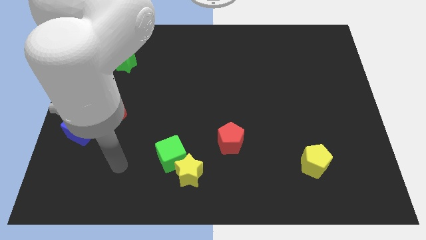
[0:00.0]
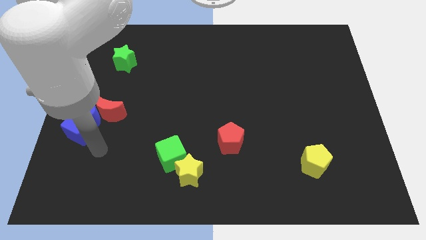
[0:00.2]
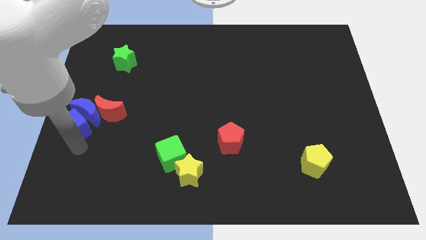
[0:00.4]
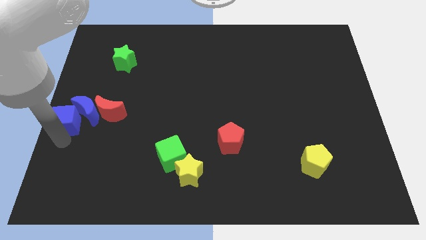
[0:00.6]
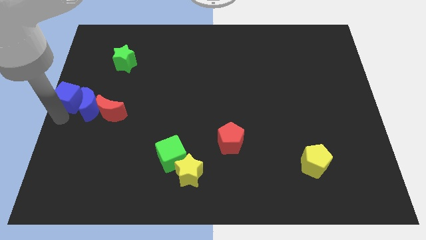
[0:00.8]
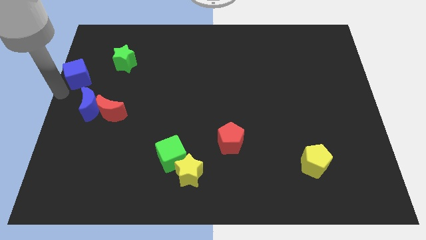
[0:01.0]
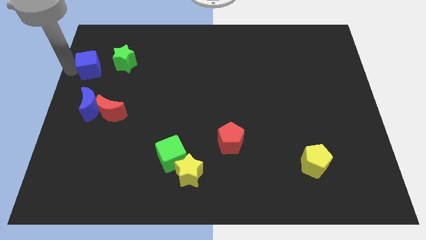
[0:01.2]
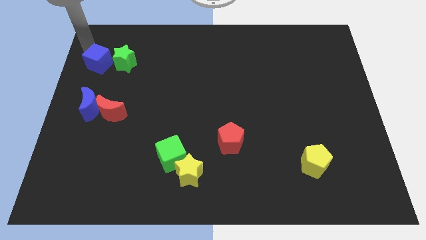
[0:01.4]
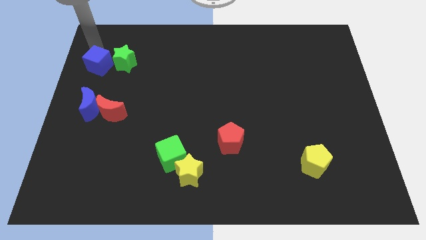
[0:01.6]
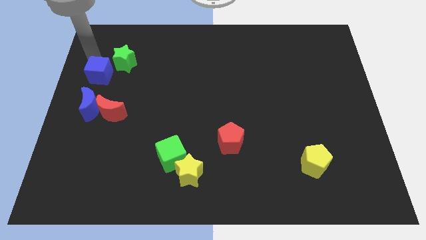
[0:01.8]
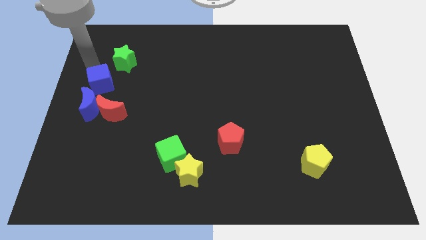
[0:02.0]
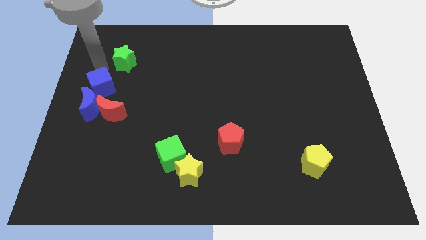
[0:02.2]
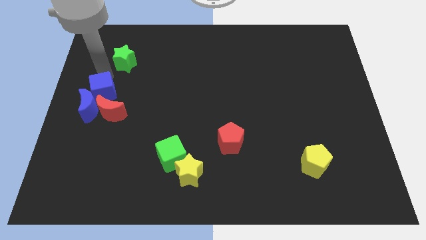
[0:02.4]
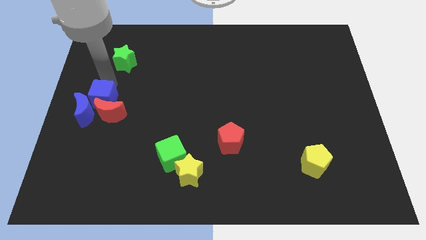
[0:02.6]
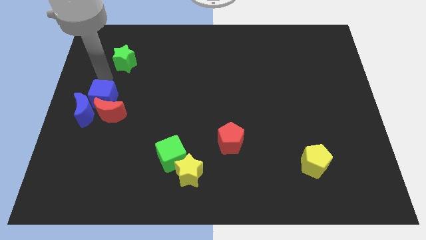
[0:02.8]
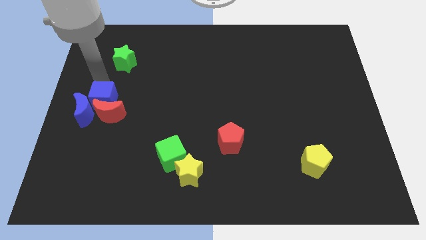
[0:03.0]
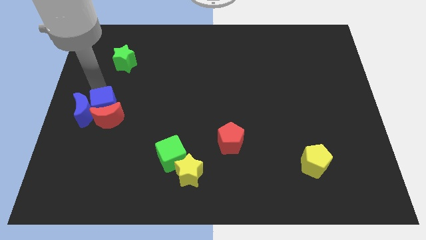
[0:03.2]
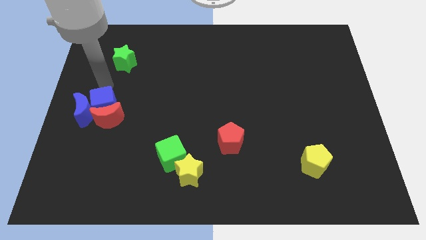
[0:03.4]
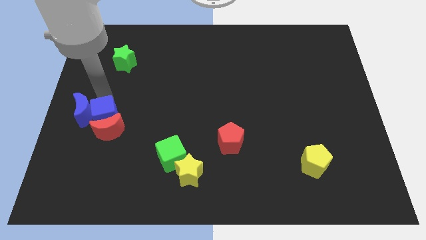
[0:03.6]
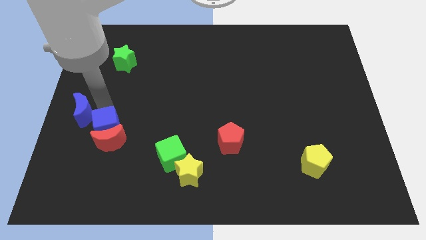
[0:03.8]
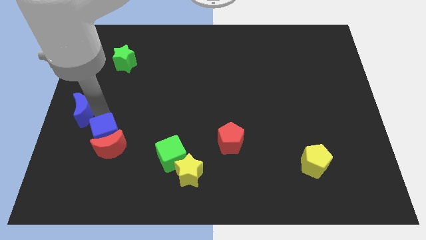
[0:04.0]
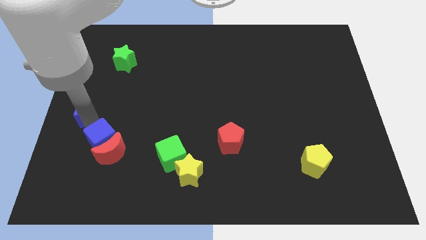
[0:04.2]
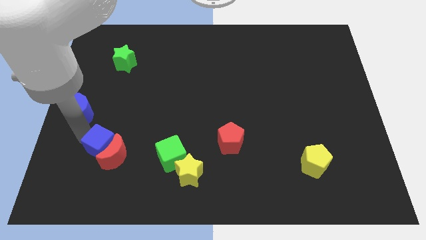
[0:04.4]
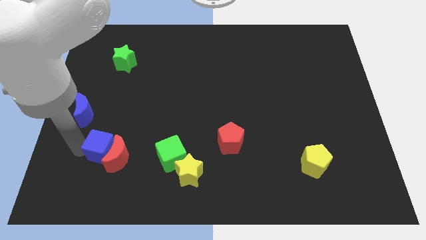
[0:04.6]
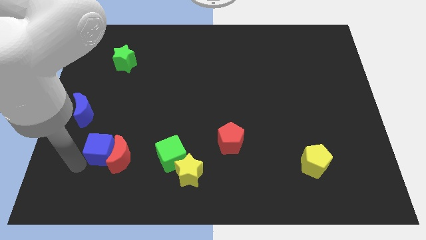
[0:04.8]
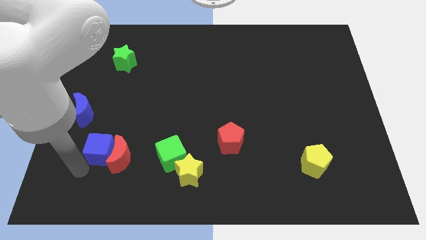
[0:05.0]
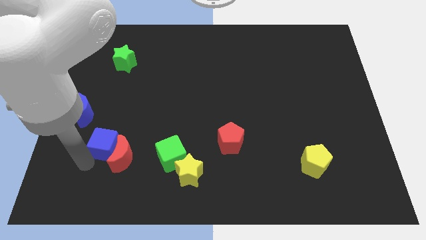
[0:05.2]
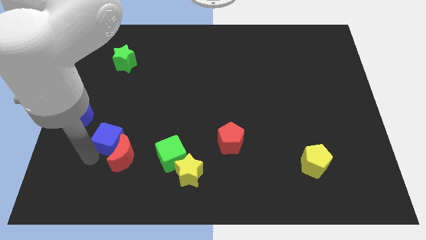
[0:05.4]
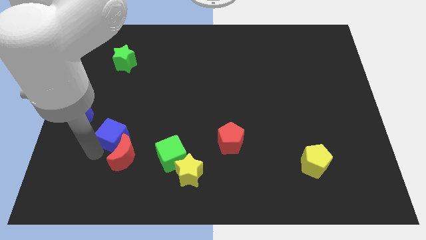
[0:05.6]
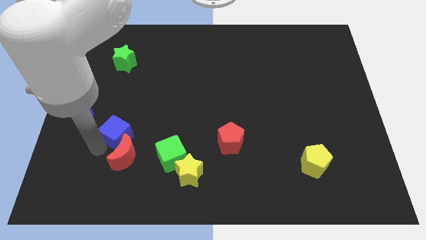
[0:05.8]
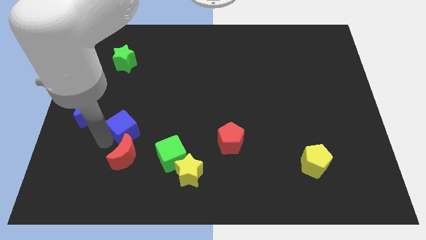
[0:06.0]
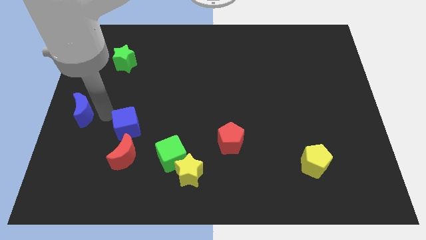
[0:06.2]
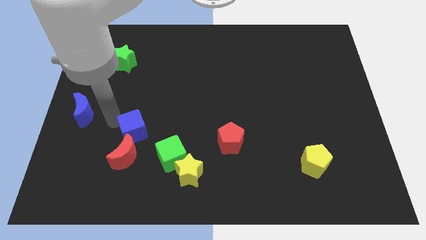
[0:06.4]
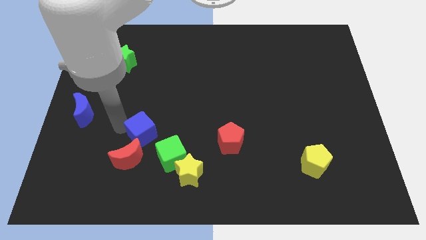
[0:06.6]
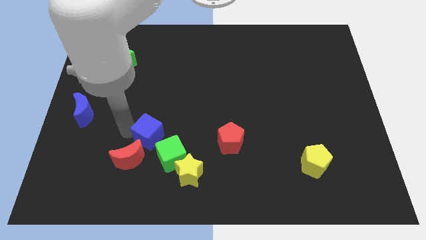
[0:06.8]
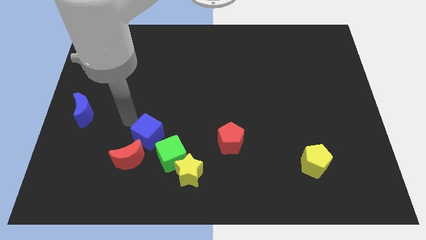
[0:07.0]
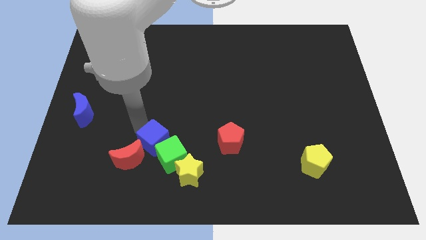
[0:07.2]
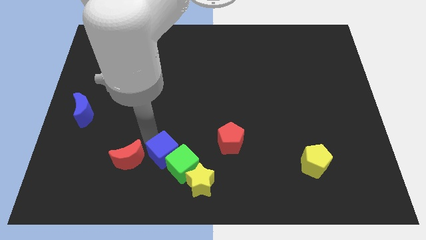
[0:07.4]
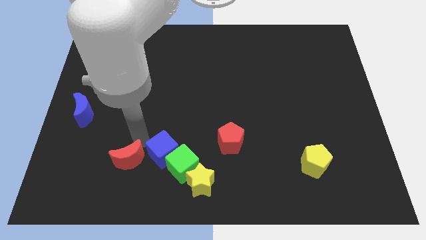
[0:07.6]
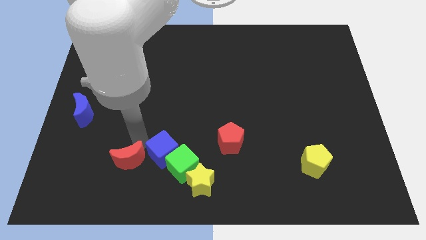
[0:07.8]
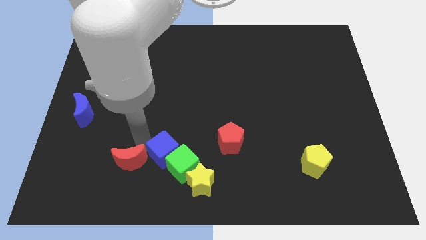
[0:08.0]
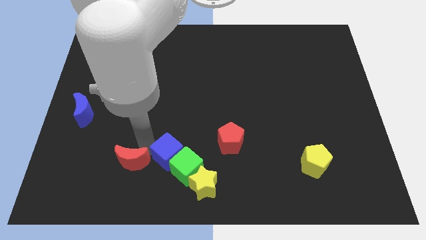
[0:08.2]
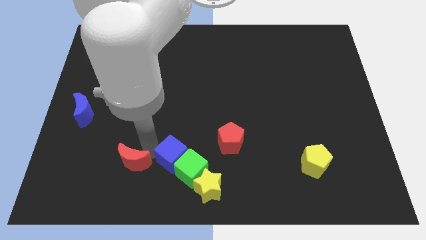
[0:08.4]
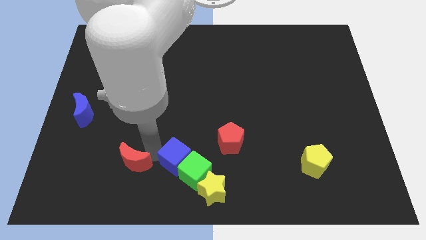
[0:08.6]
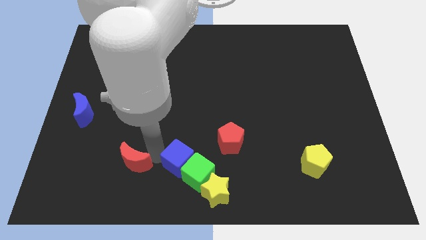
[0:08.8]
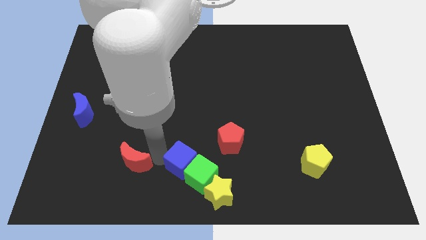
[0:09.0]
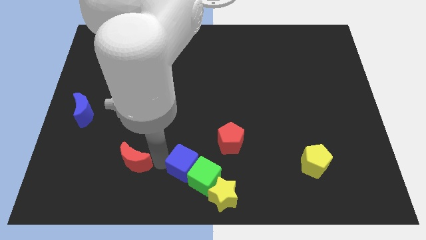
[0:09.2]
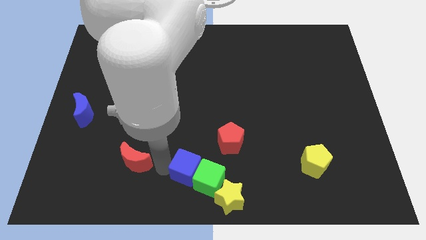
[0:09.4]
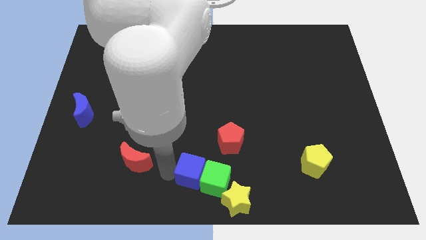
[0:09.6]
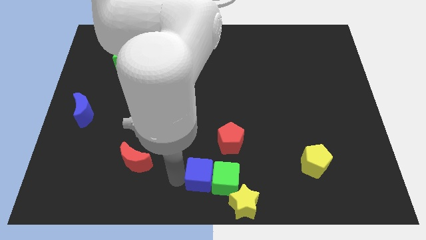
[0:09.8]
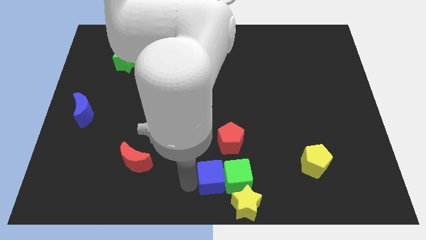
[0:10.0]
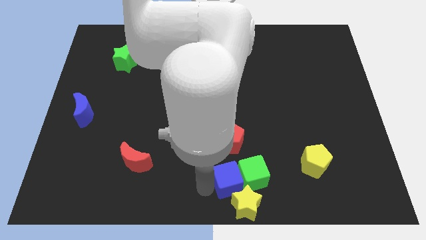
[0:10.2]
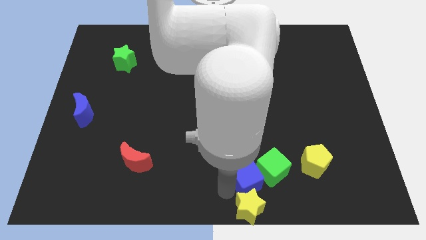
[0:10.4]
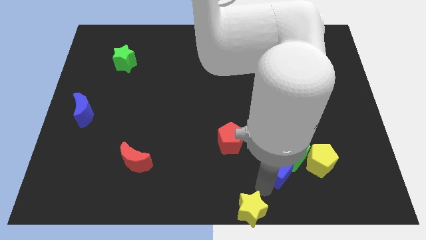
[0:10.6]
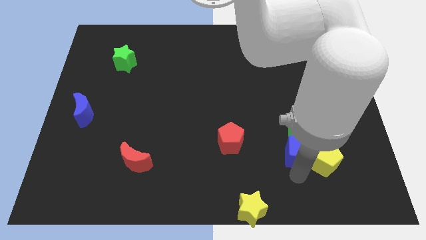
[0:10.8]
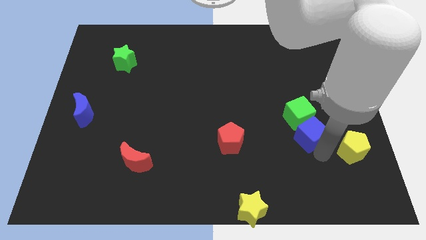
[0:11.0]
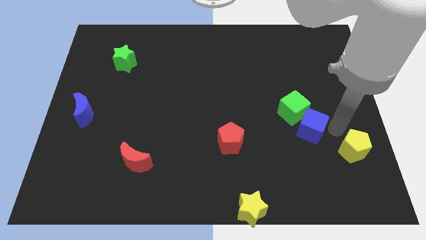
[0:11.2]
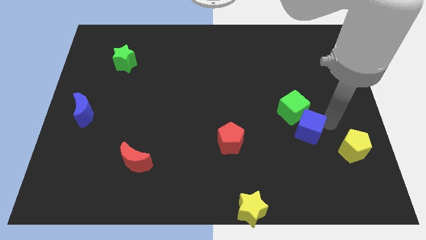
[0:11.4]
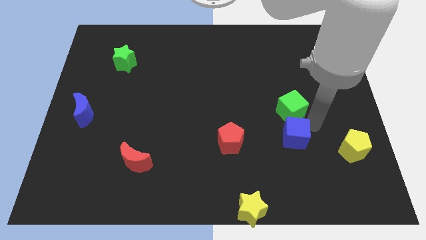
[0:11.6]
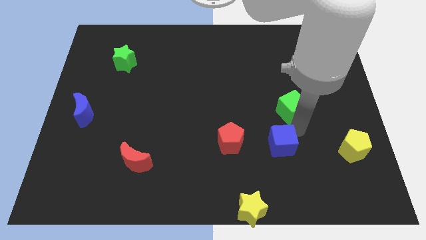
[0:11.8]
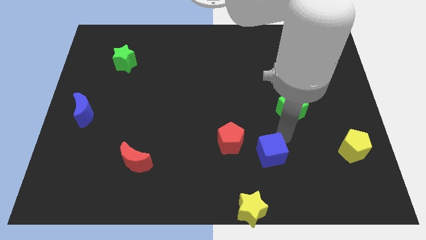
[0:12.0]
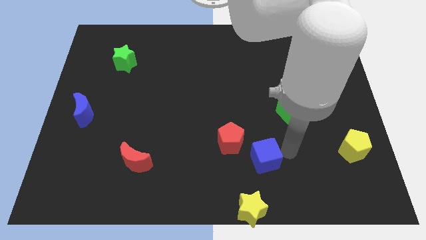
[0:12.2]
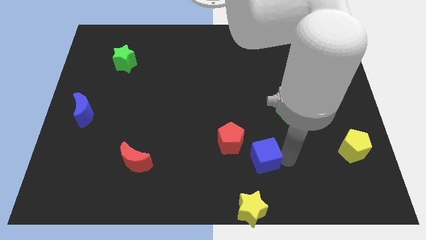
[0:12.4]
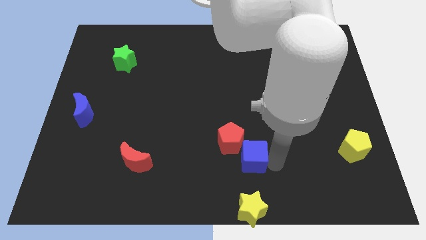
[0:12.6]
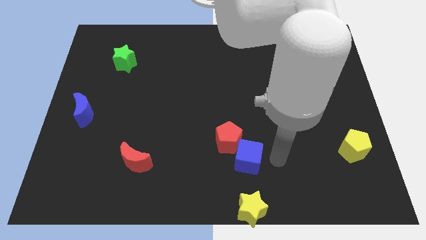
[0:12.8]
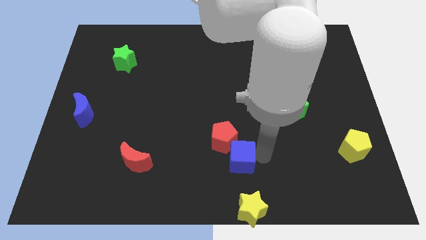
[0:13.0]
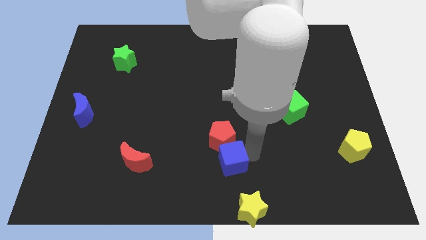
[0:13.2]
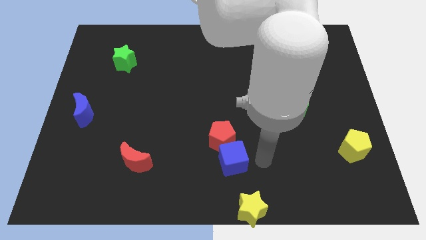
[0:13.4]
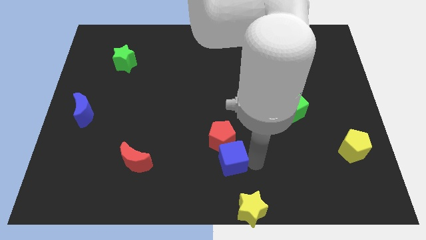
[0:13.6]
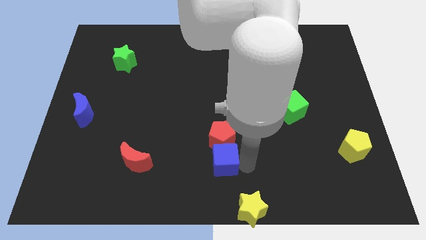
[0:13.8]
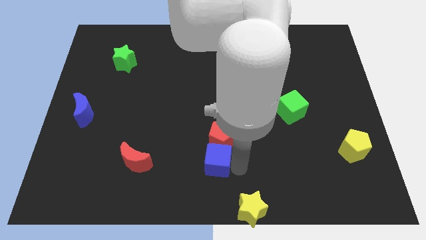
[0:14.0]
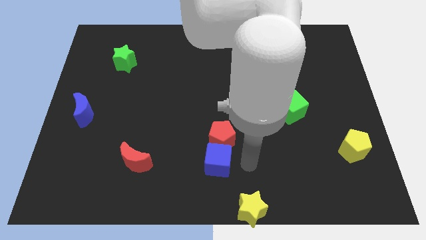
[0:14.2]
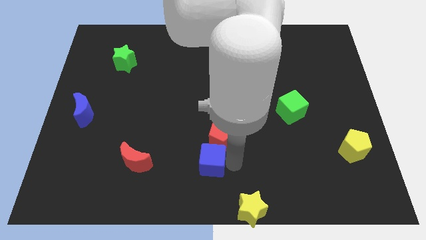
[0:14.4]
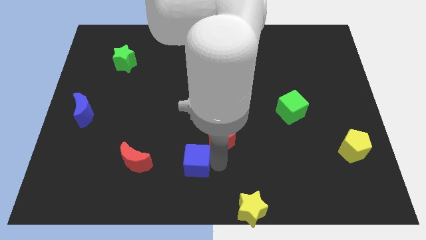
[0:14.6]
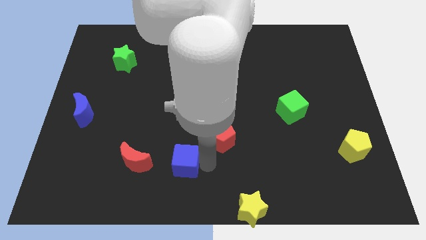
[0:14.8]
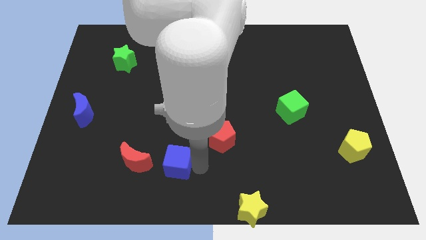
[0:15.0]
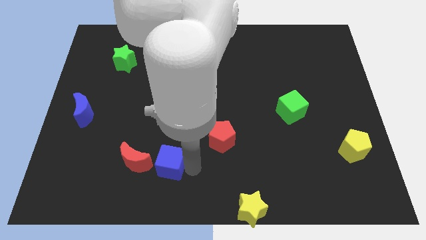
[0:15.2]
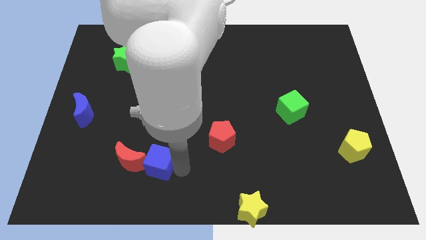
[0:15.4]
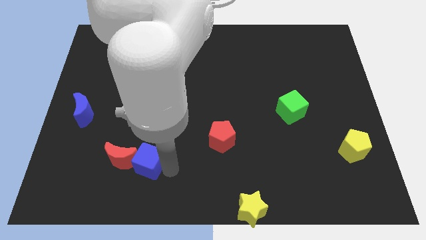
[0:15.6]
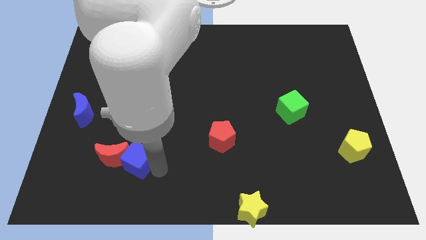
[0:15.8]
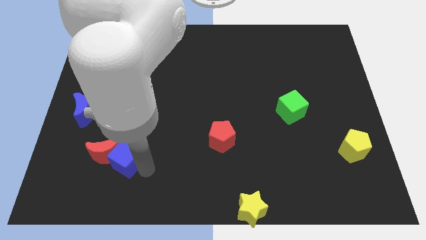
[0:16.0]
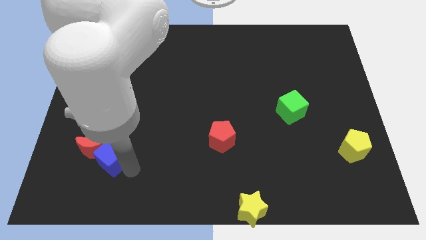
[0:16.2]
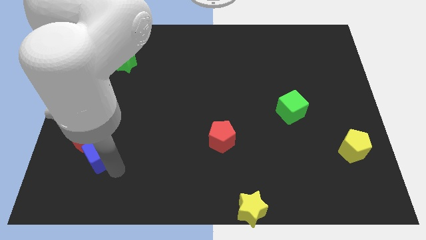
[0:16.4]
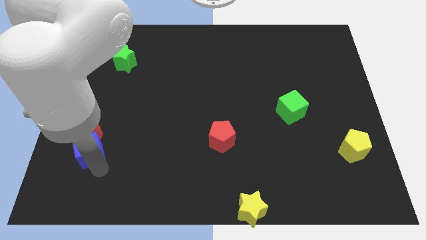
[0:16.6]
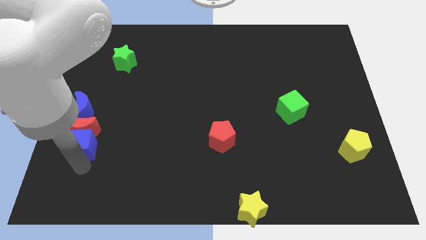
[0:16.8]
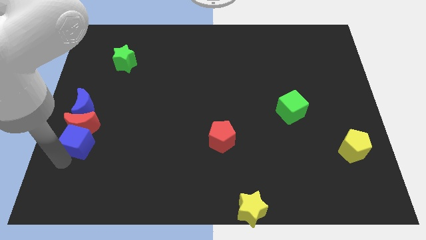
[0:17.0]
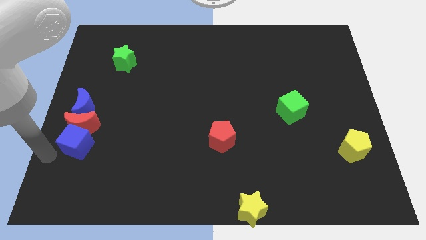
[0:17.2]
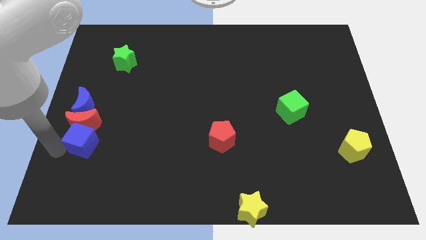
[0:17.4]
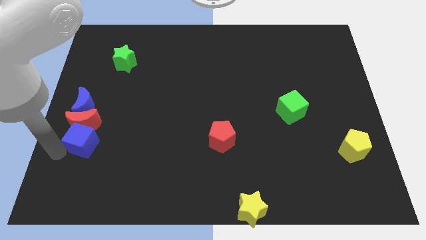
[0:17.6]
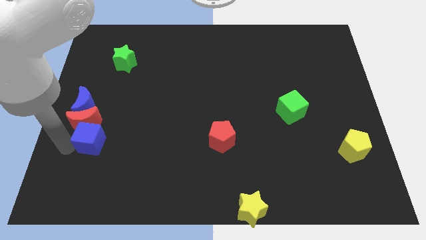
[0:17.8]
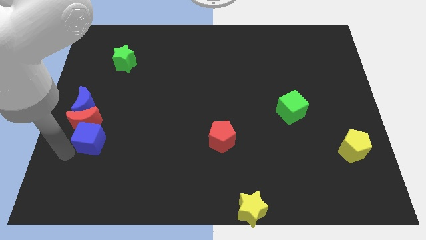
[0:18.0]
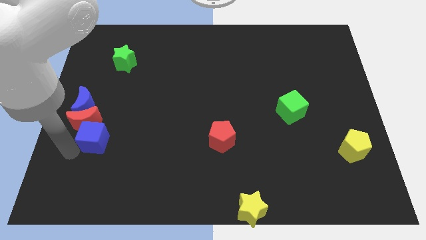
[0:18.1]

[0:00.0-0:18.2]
put the blue cube to the right side of the red moon
